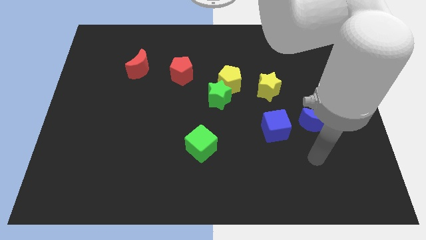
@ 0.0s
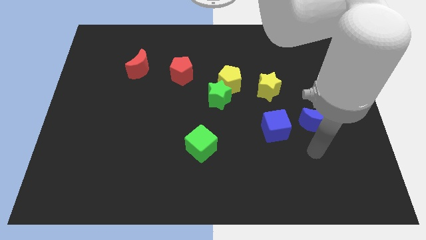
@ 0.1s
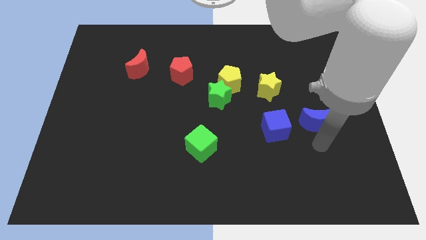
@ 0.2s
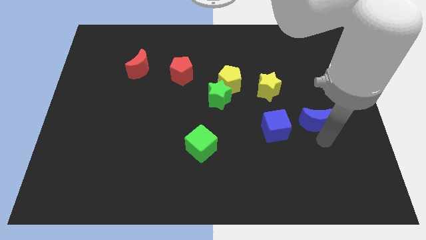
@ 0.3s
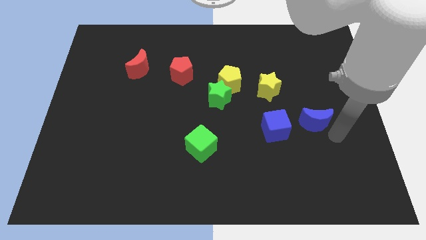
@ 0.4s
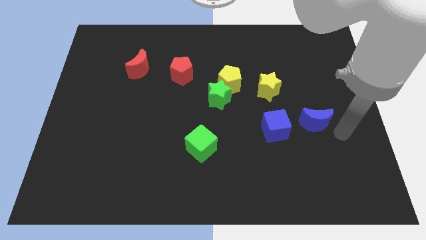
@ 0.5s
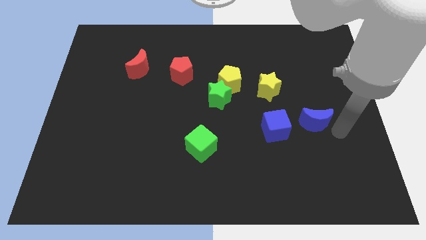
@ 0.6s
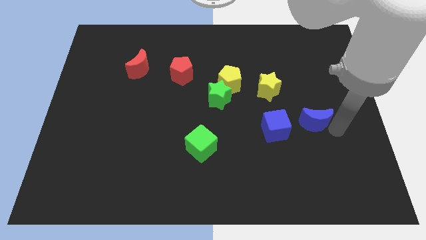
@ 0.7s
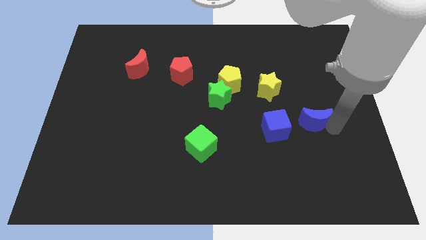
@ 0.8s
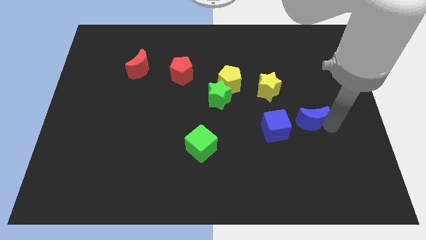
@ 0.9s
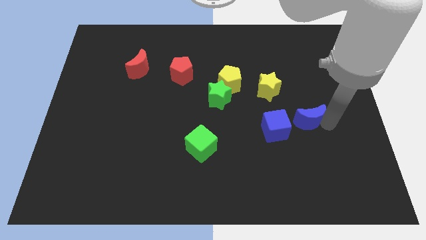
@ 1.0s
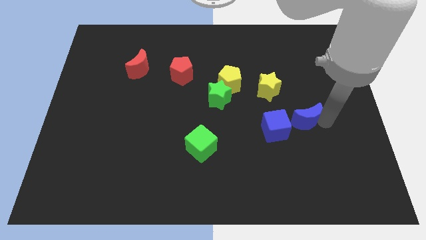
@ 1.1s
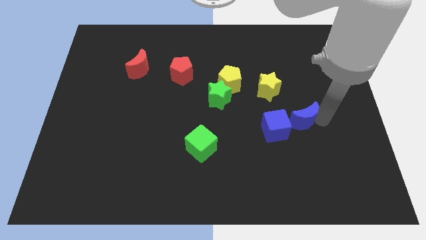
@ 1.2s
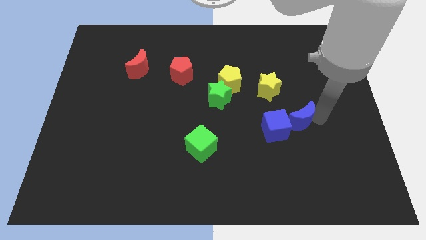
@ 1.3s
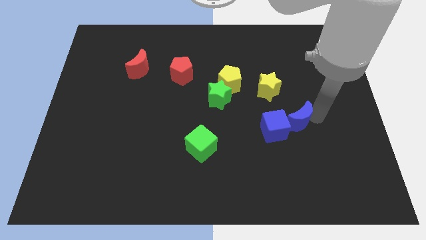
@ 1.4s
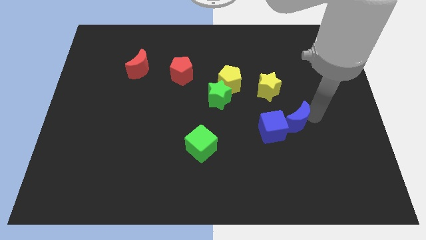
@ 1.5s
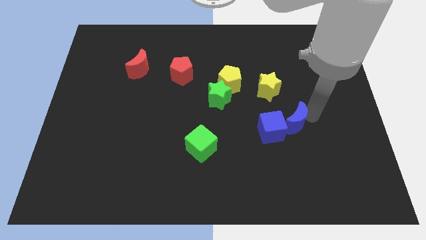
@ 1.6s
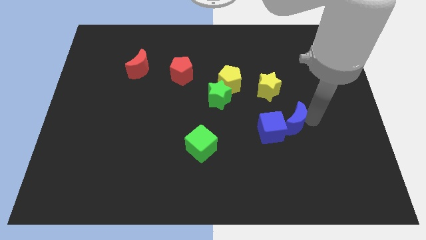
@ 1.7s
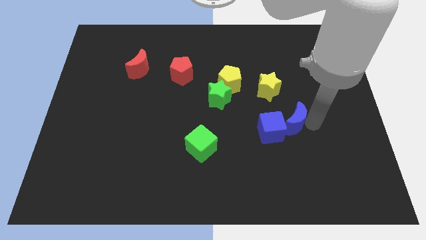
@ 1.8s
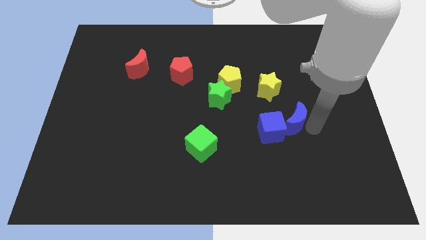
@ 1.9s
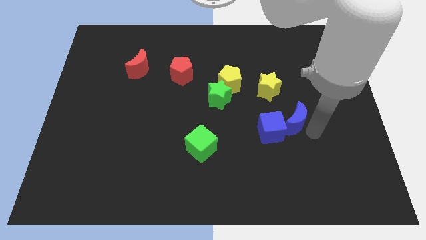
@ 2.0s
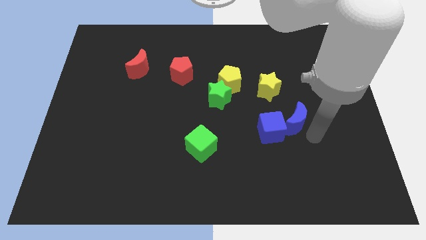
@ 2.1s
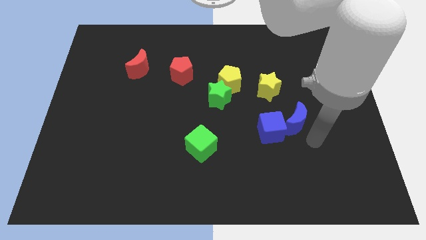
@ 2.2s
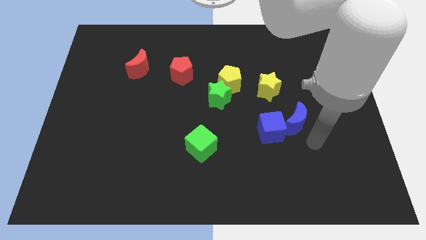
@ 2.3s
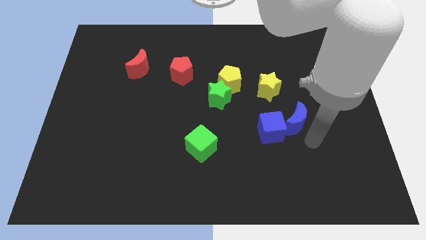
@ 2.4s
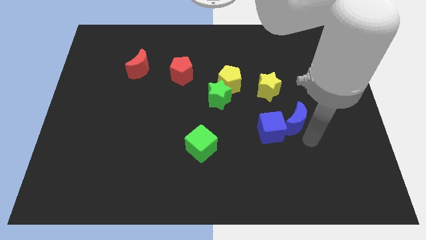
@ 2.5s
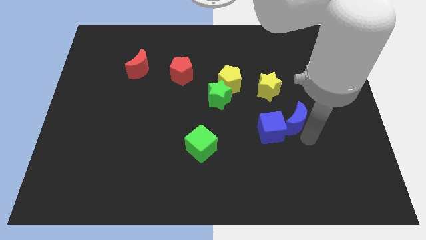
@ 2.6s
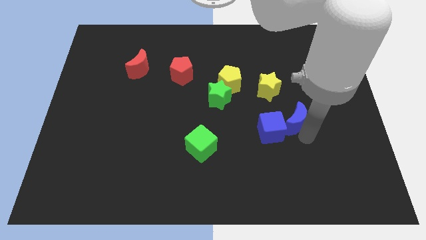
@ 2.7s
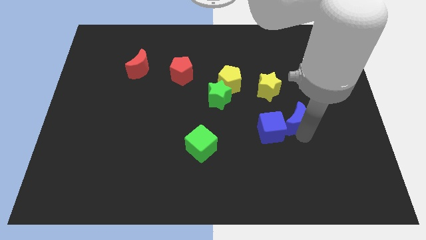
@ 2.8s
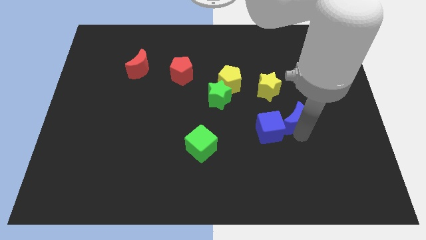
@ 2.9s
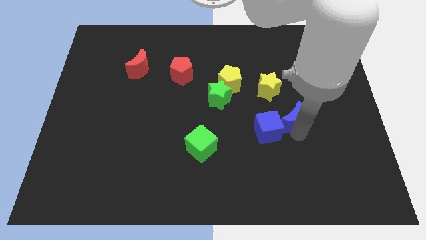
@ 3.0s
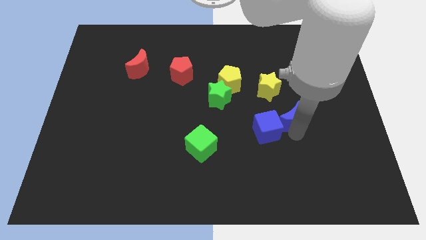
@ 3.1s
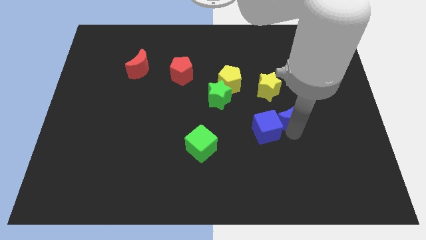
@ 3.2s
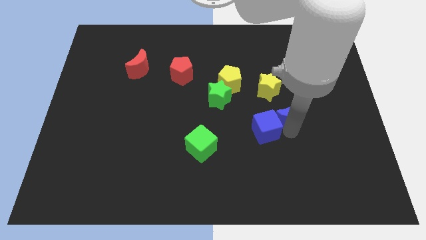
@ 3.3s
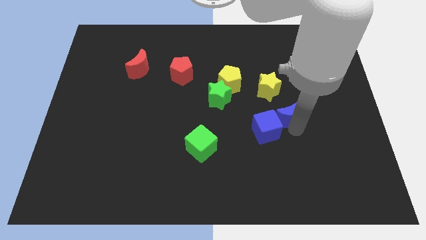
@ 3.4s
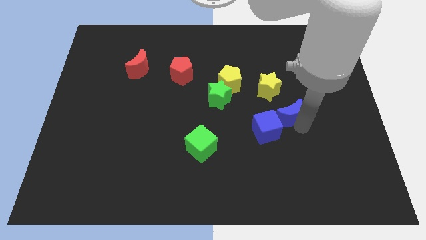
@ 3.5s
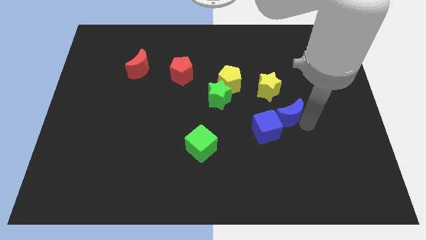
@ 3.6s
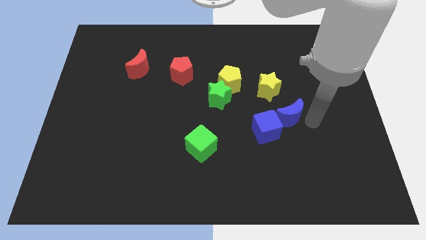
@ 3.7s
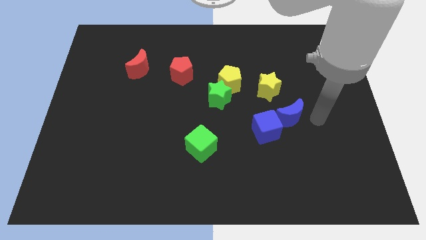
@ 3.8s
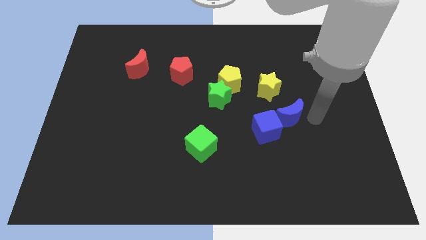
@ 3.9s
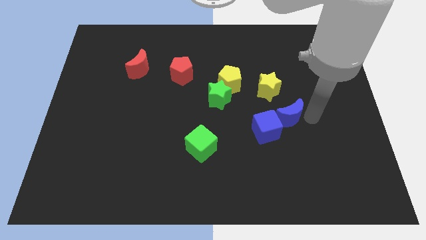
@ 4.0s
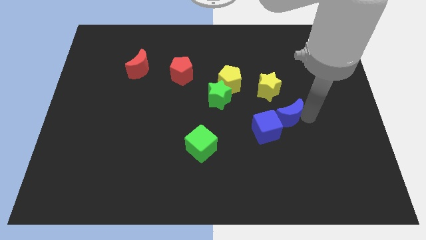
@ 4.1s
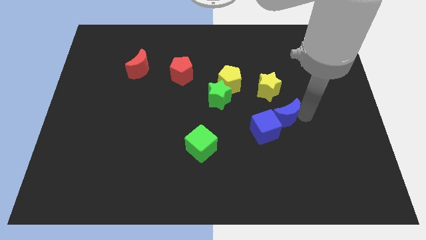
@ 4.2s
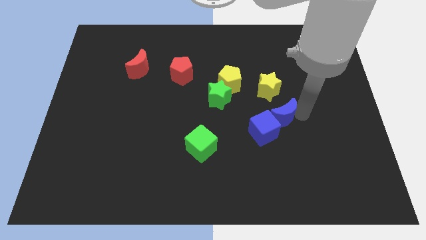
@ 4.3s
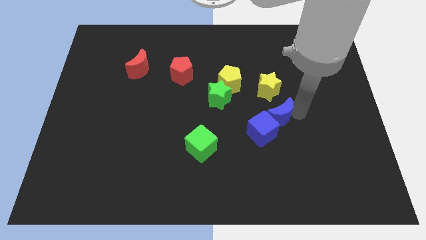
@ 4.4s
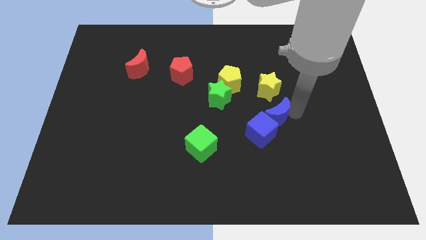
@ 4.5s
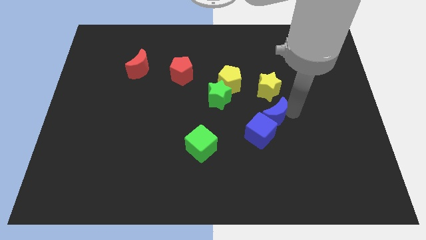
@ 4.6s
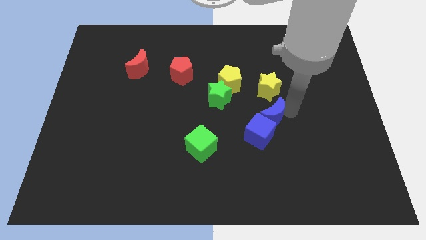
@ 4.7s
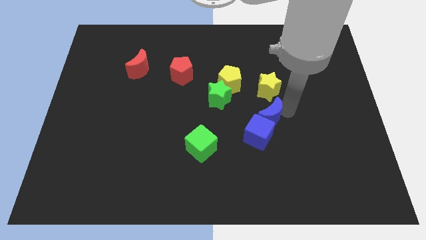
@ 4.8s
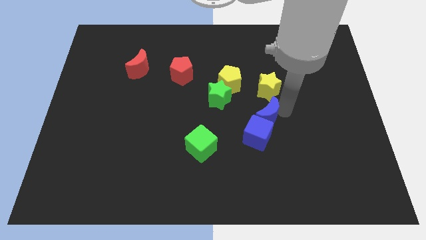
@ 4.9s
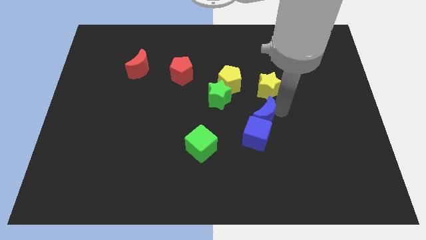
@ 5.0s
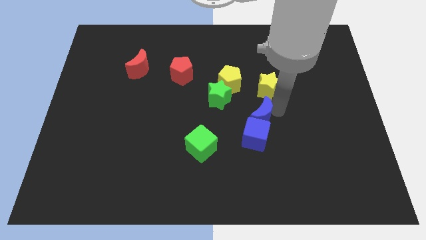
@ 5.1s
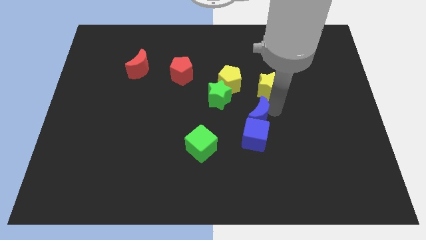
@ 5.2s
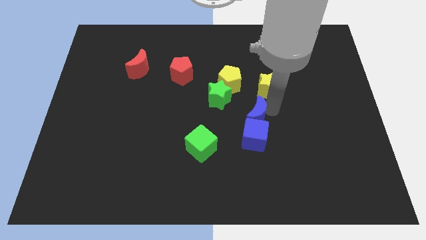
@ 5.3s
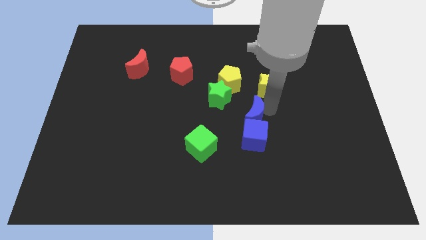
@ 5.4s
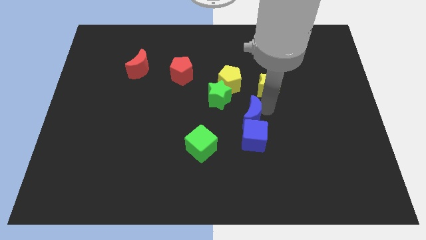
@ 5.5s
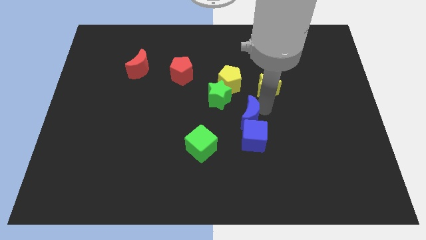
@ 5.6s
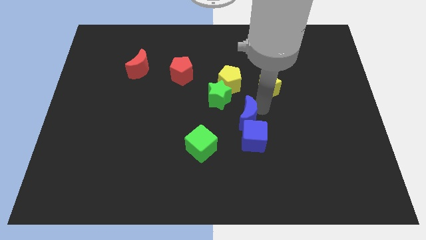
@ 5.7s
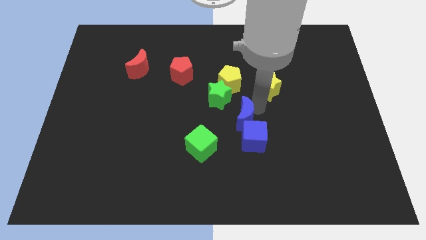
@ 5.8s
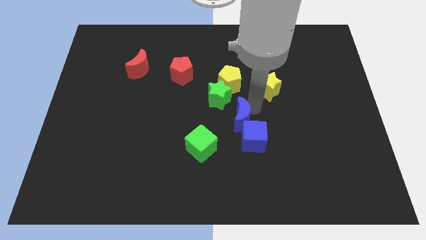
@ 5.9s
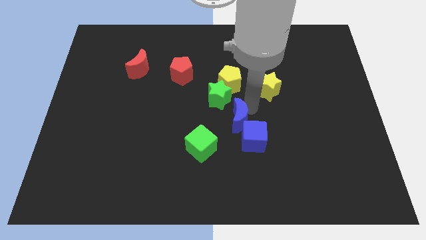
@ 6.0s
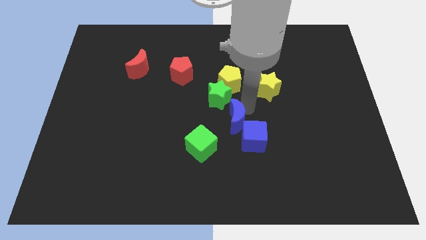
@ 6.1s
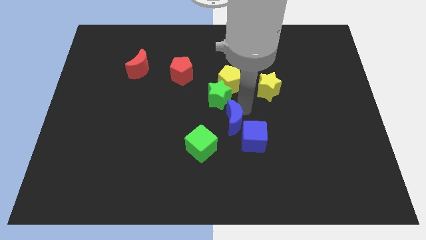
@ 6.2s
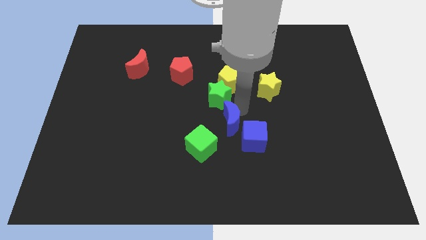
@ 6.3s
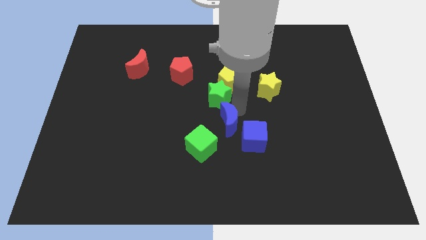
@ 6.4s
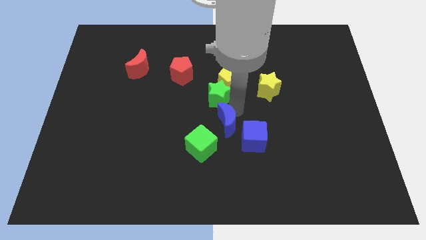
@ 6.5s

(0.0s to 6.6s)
slide the blue moon to the left

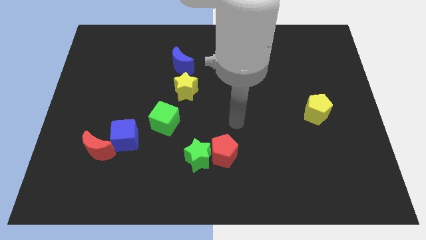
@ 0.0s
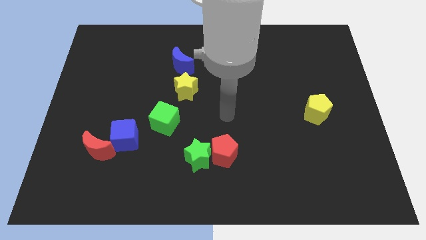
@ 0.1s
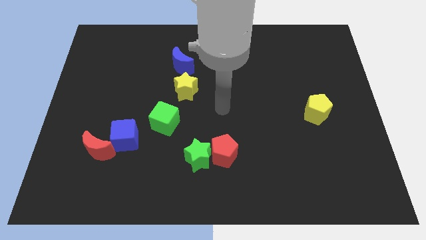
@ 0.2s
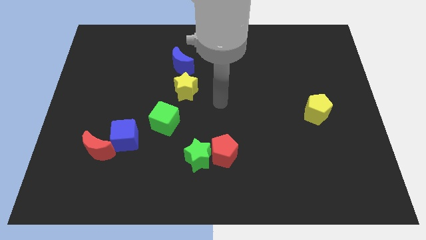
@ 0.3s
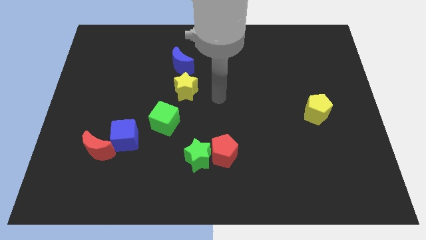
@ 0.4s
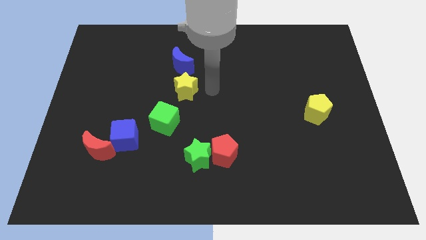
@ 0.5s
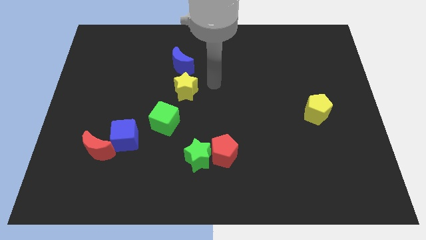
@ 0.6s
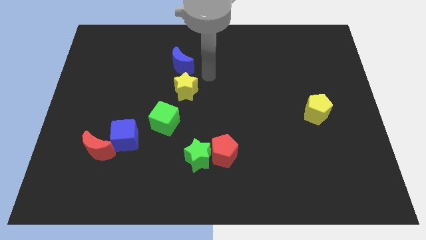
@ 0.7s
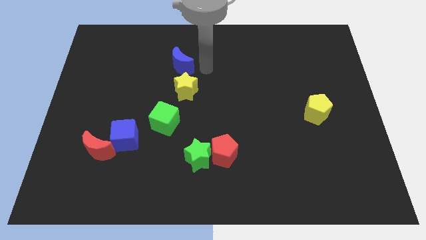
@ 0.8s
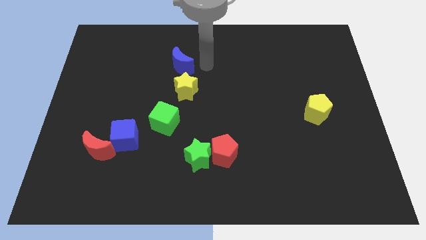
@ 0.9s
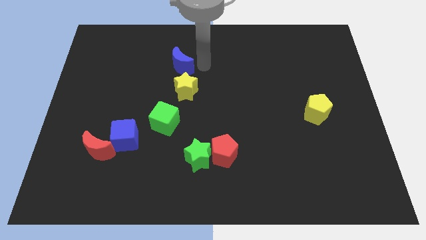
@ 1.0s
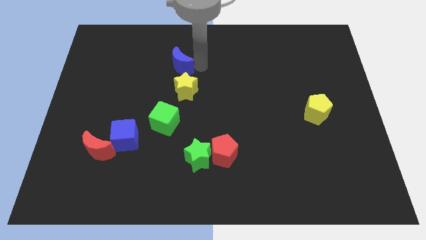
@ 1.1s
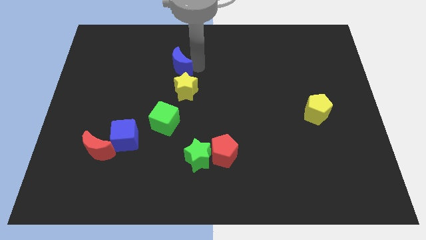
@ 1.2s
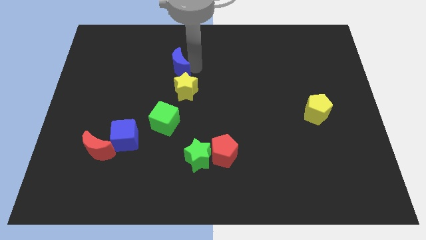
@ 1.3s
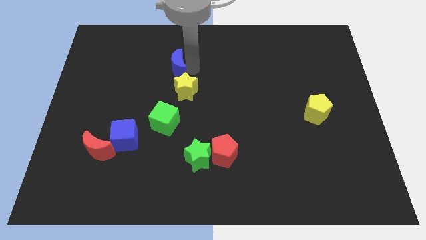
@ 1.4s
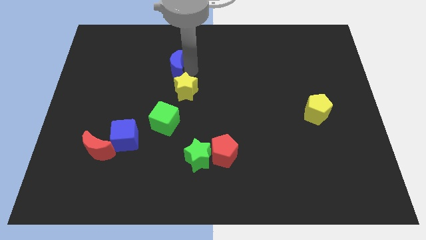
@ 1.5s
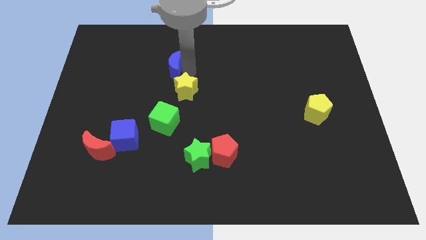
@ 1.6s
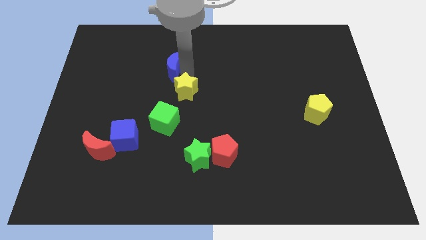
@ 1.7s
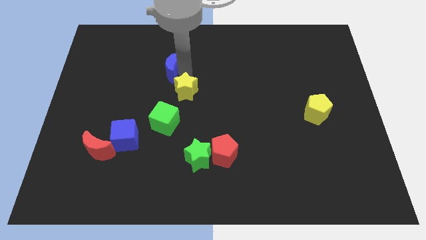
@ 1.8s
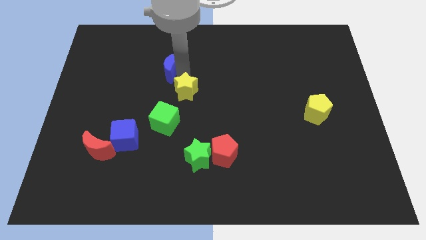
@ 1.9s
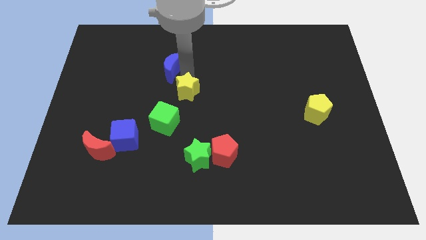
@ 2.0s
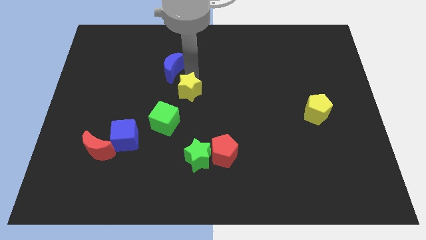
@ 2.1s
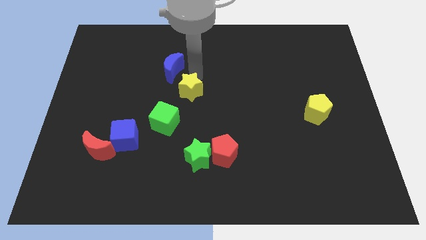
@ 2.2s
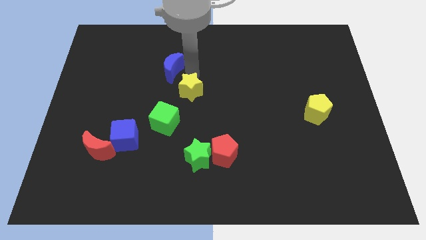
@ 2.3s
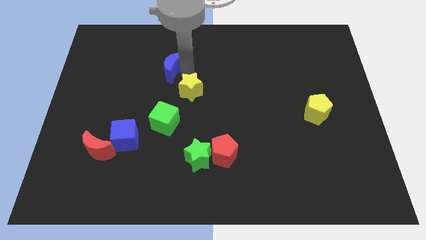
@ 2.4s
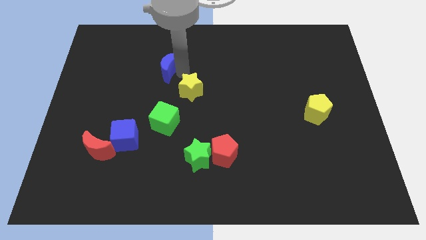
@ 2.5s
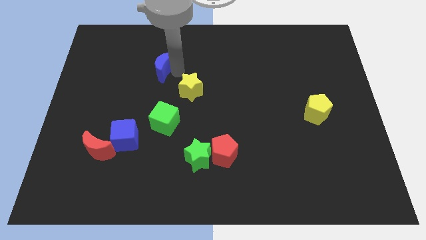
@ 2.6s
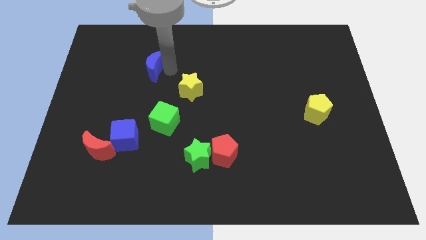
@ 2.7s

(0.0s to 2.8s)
move the blue moon a bit to the left
